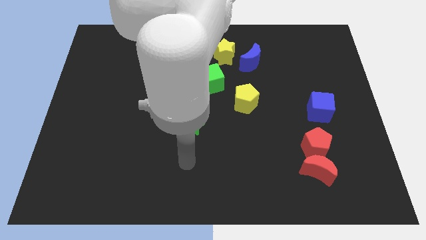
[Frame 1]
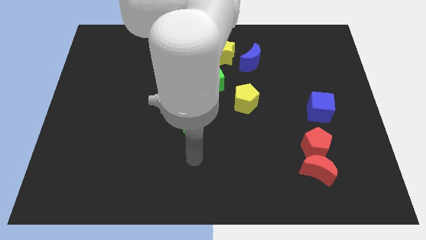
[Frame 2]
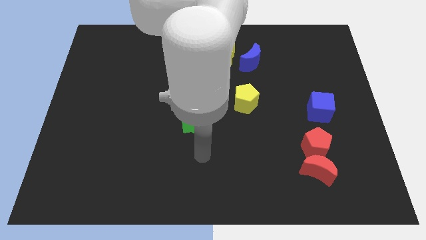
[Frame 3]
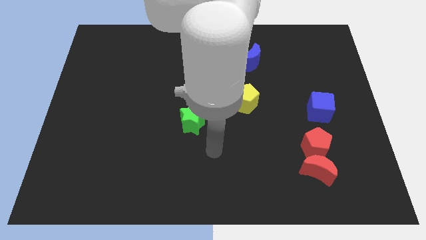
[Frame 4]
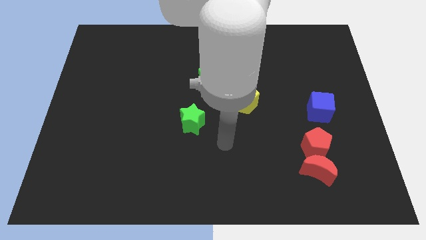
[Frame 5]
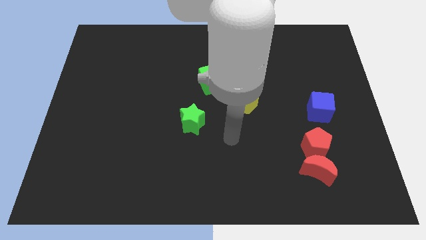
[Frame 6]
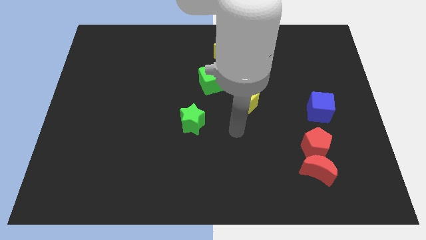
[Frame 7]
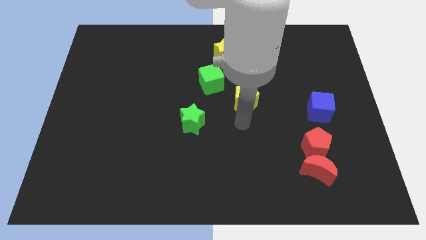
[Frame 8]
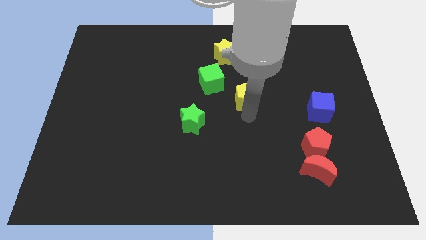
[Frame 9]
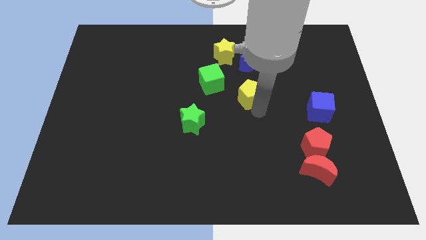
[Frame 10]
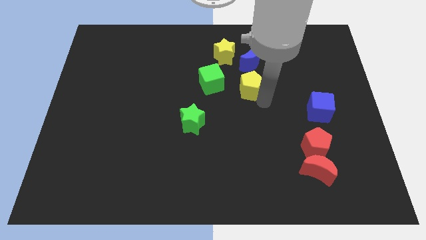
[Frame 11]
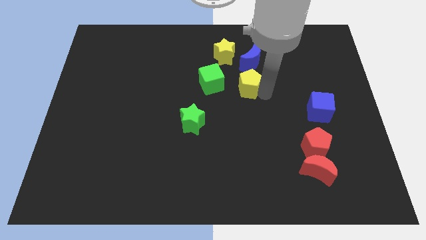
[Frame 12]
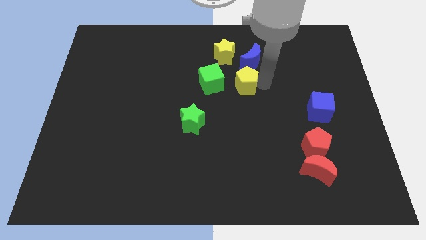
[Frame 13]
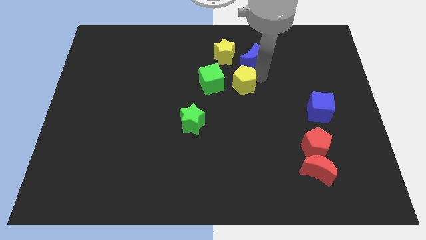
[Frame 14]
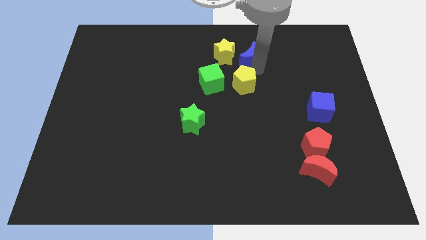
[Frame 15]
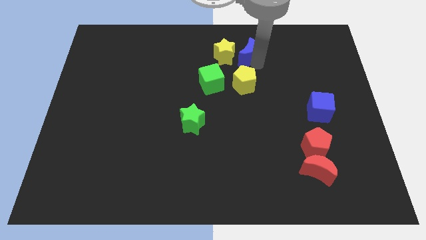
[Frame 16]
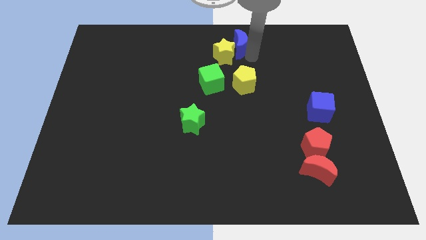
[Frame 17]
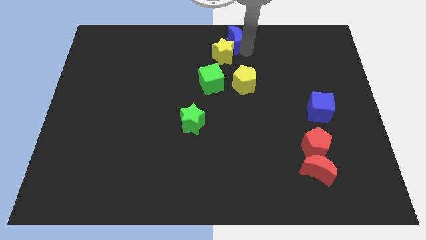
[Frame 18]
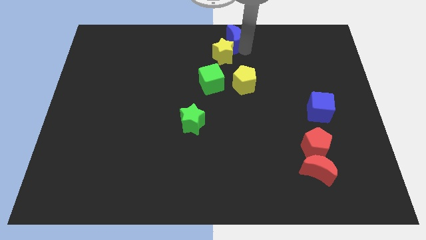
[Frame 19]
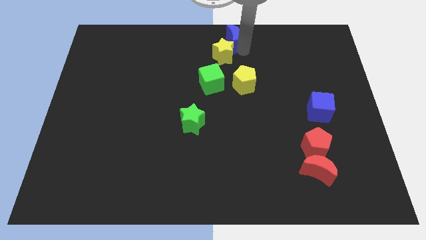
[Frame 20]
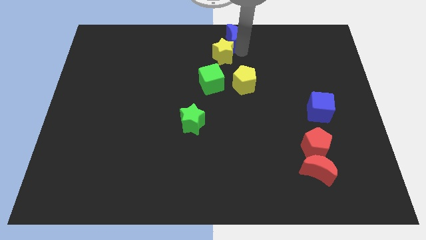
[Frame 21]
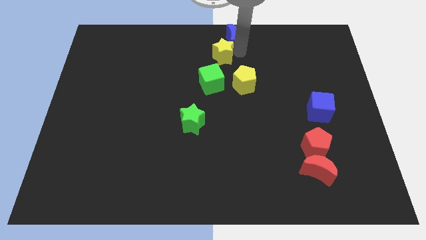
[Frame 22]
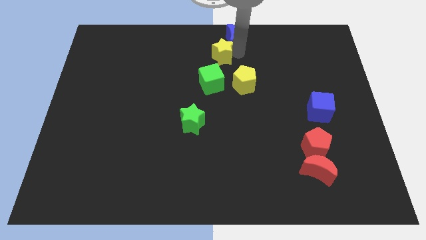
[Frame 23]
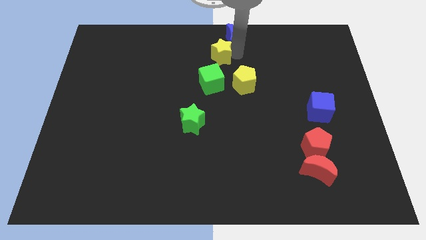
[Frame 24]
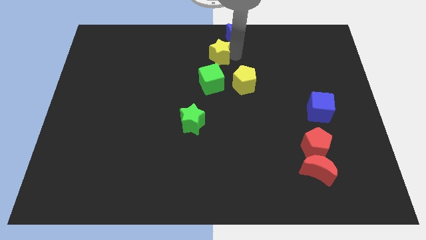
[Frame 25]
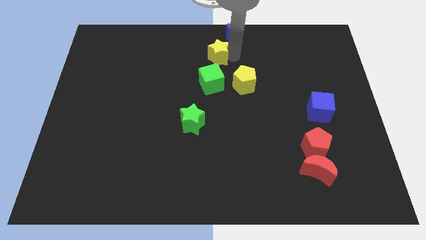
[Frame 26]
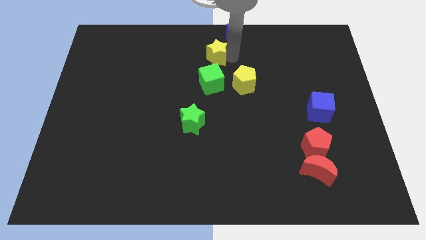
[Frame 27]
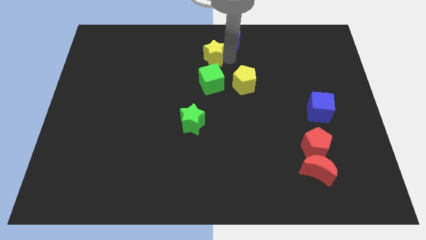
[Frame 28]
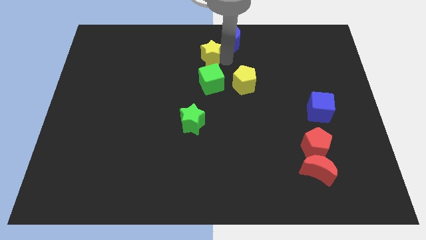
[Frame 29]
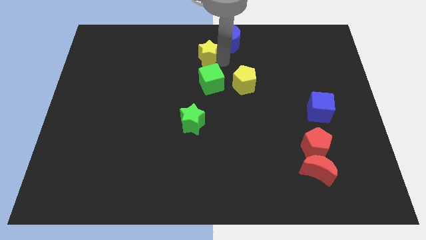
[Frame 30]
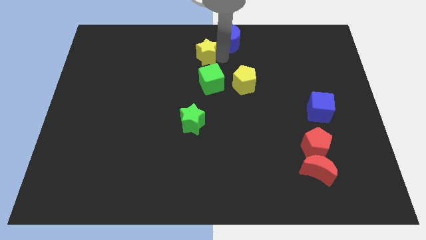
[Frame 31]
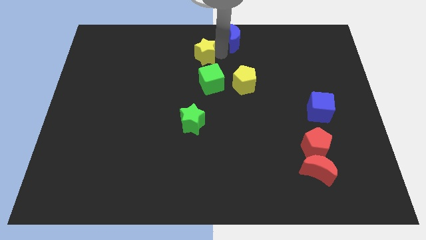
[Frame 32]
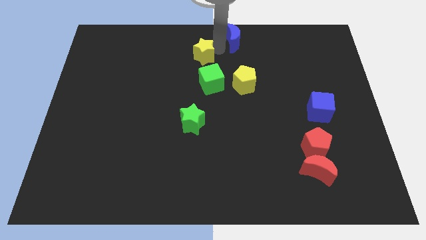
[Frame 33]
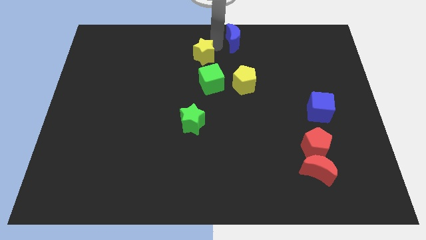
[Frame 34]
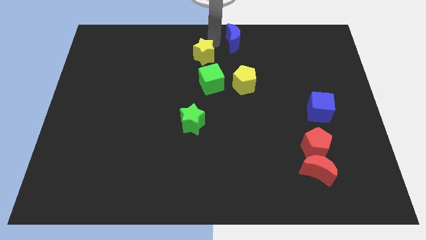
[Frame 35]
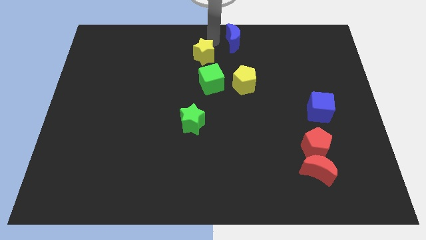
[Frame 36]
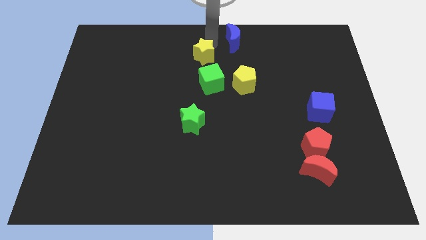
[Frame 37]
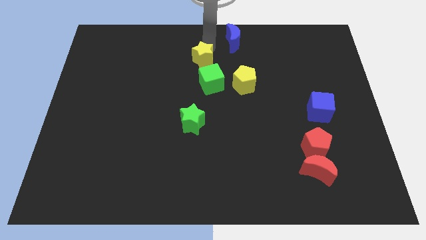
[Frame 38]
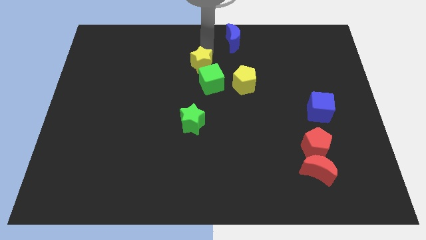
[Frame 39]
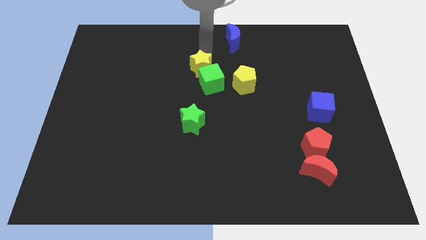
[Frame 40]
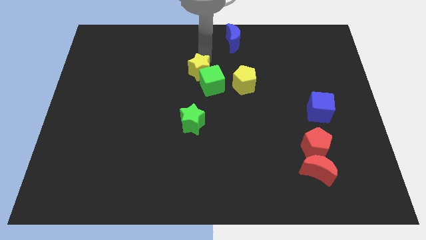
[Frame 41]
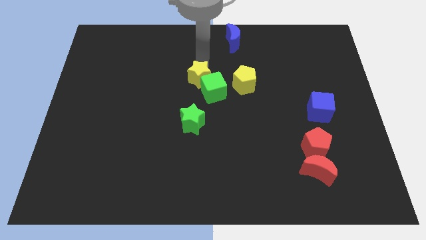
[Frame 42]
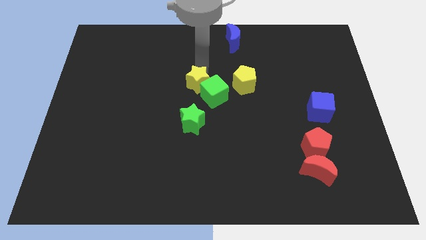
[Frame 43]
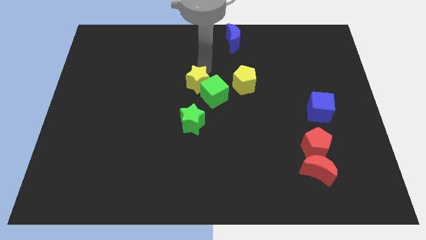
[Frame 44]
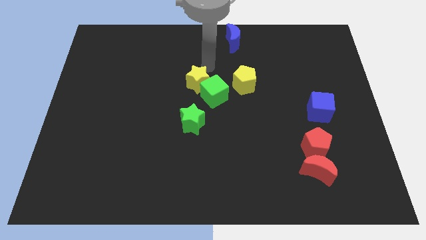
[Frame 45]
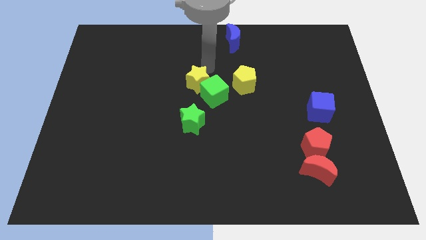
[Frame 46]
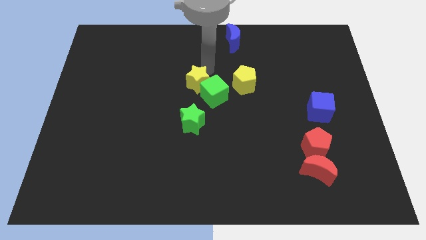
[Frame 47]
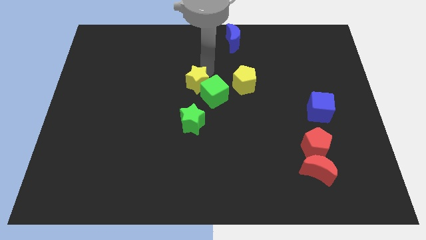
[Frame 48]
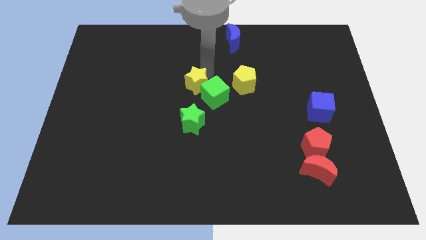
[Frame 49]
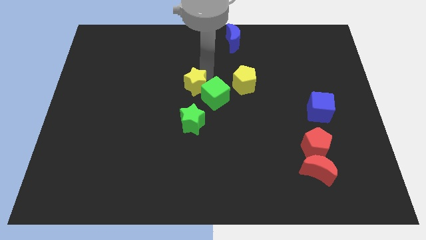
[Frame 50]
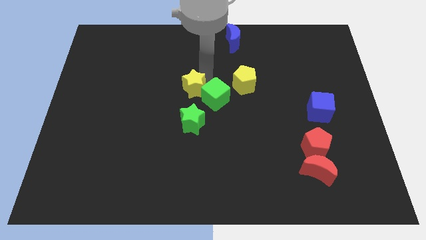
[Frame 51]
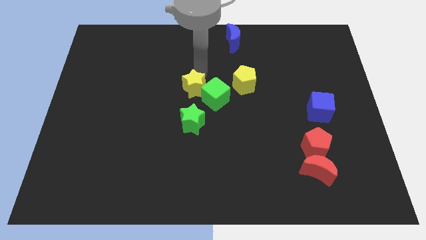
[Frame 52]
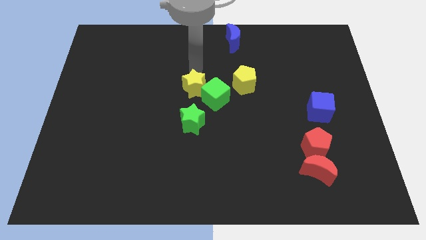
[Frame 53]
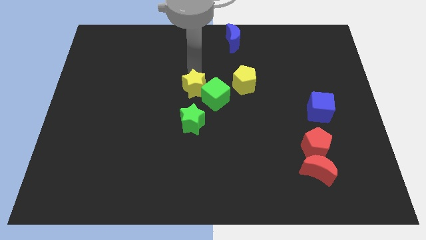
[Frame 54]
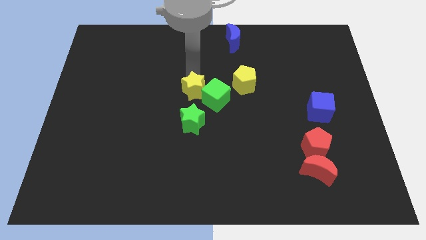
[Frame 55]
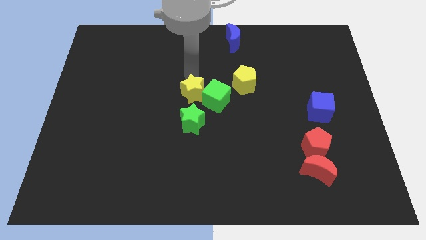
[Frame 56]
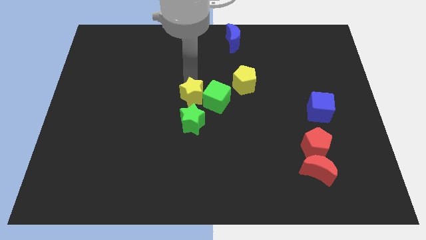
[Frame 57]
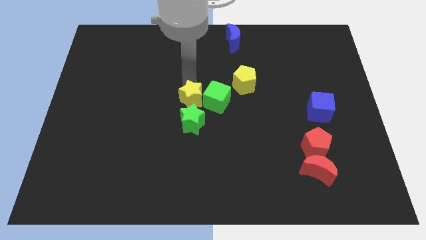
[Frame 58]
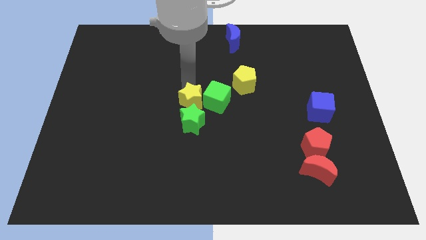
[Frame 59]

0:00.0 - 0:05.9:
push the yellow star to the green star

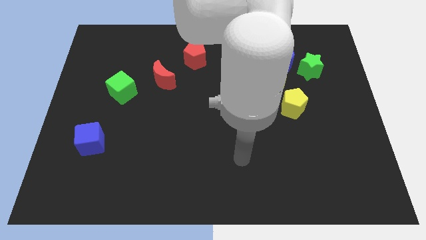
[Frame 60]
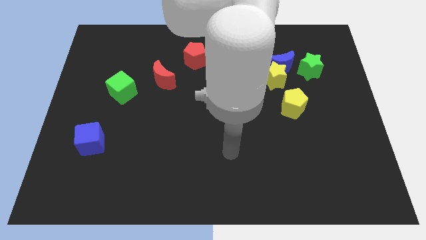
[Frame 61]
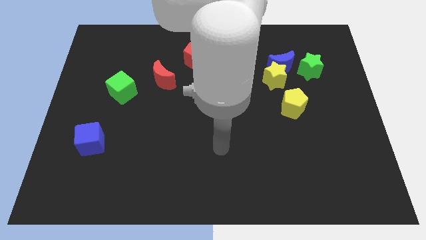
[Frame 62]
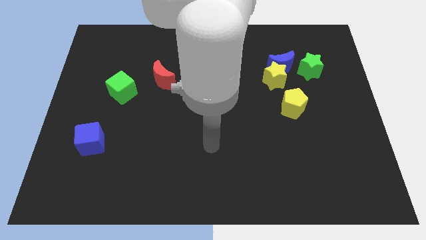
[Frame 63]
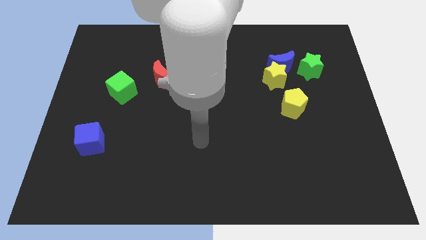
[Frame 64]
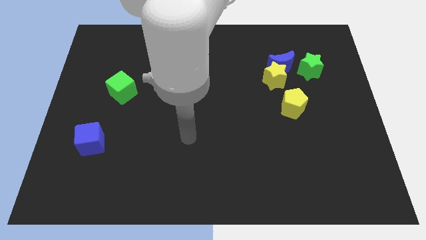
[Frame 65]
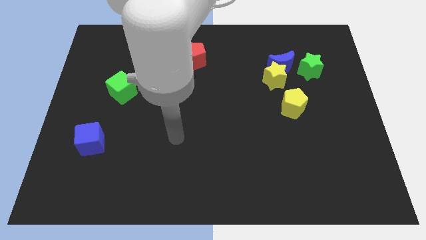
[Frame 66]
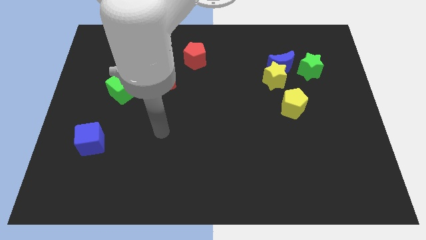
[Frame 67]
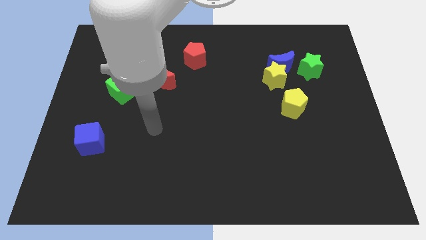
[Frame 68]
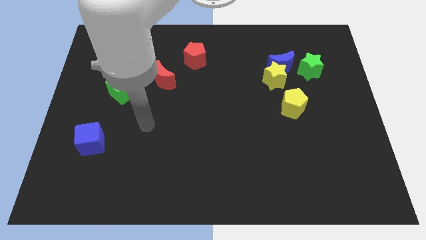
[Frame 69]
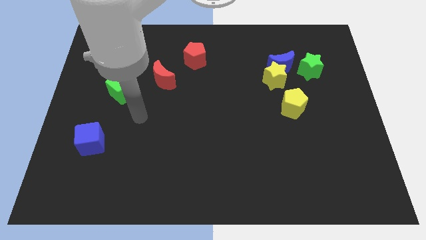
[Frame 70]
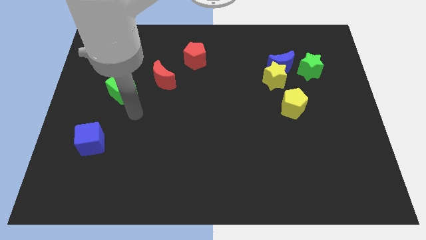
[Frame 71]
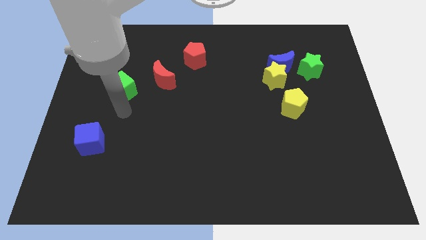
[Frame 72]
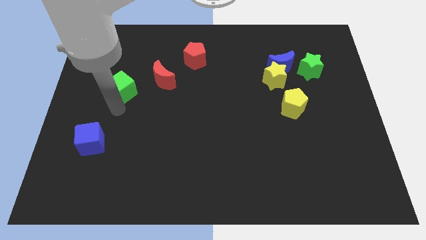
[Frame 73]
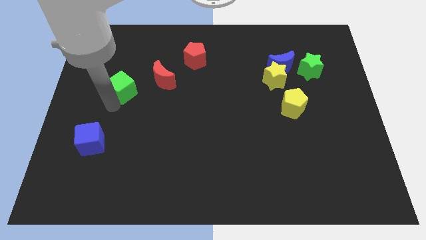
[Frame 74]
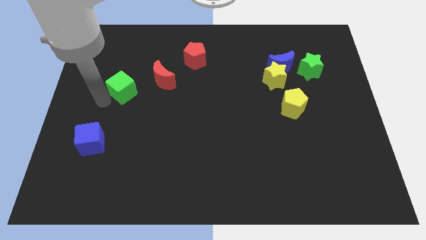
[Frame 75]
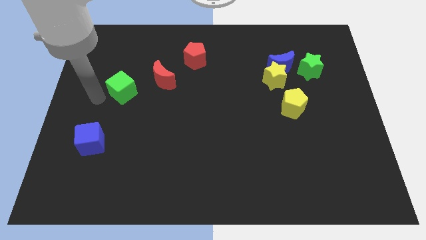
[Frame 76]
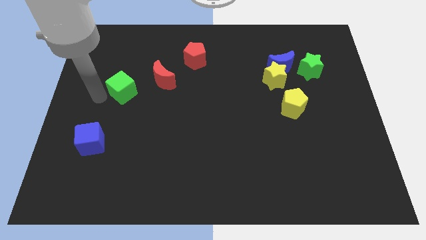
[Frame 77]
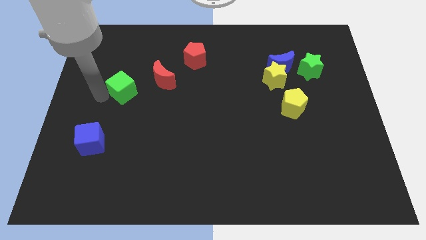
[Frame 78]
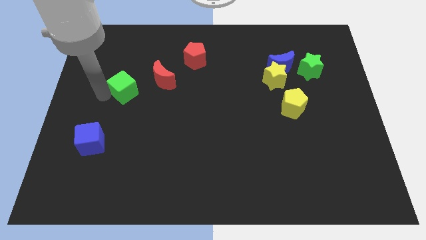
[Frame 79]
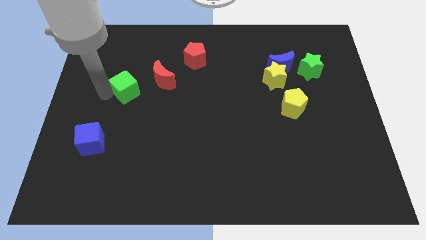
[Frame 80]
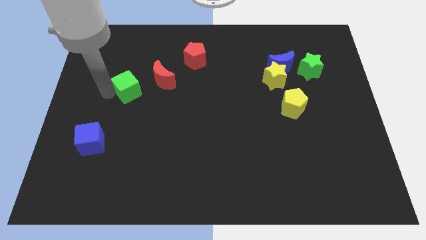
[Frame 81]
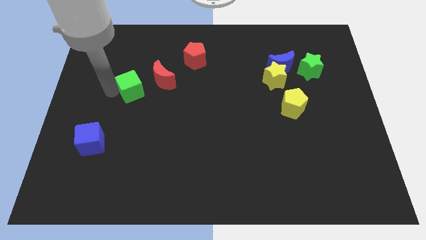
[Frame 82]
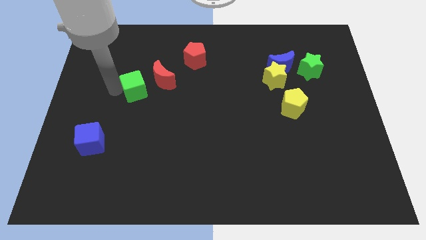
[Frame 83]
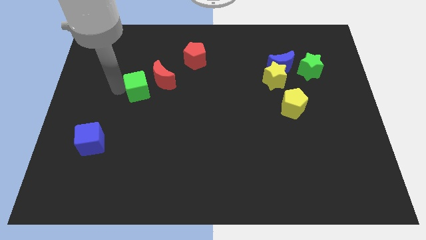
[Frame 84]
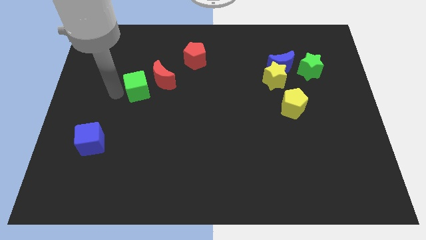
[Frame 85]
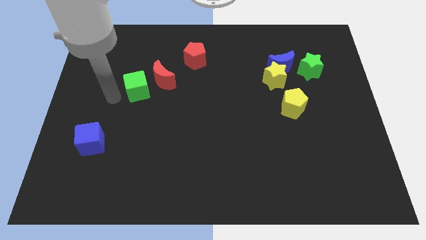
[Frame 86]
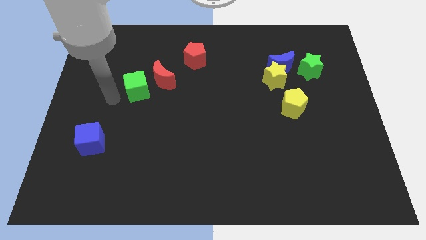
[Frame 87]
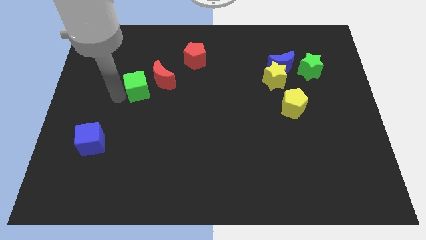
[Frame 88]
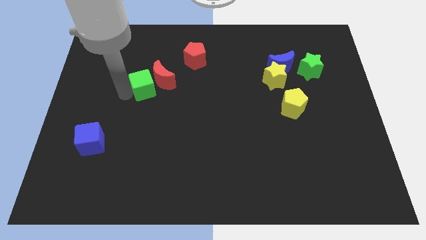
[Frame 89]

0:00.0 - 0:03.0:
slide the green cube close to the red moon
